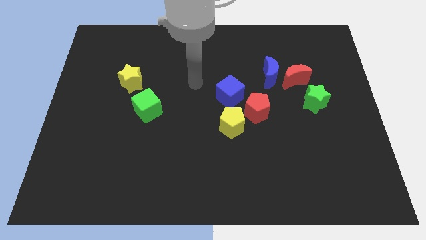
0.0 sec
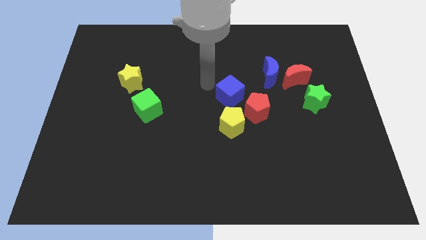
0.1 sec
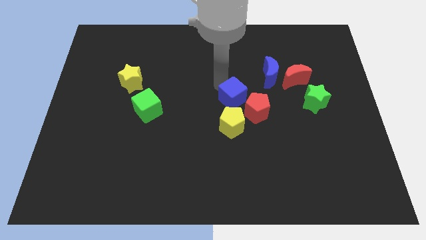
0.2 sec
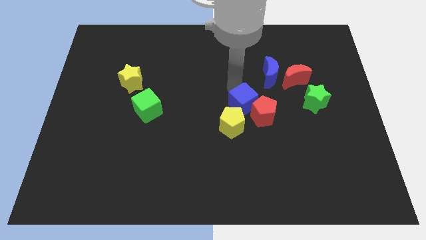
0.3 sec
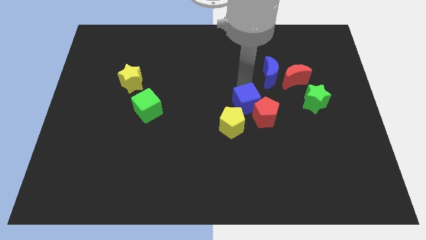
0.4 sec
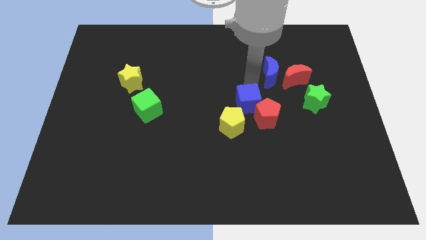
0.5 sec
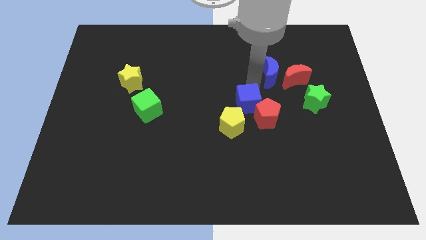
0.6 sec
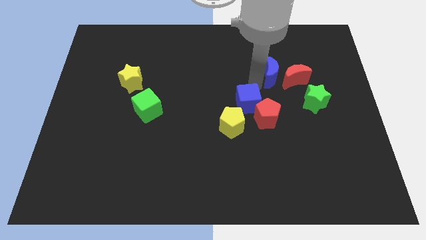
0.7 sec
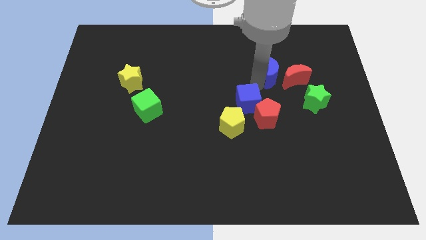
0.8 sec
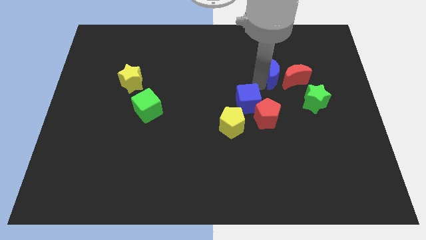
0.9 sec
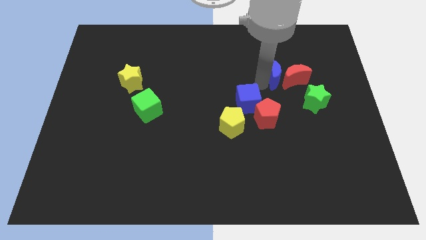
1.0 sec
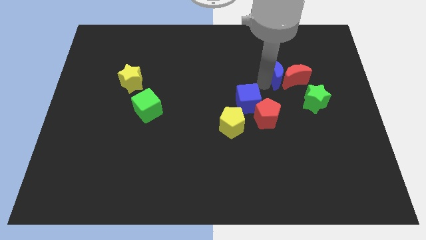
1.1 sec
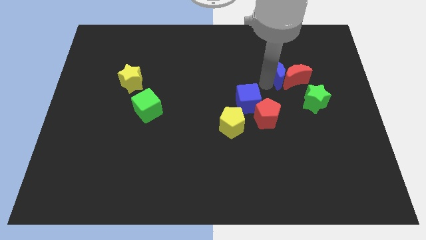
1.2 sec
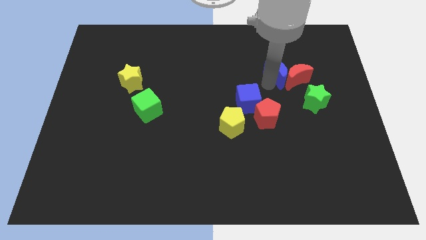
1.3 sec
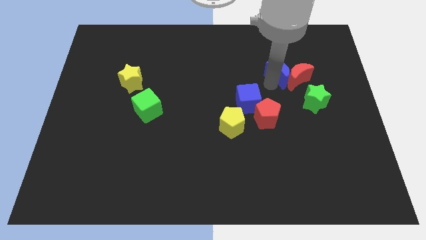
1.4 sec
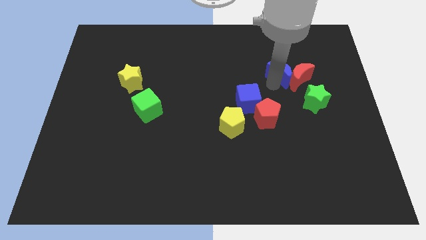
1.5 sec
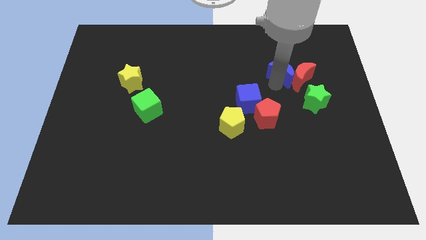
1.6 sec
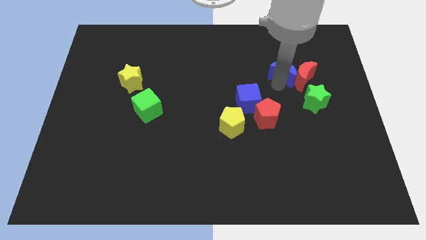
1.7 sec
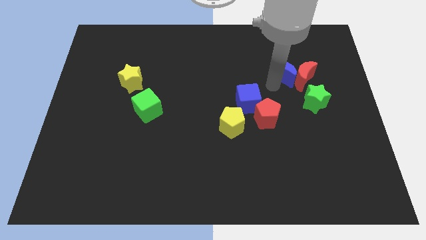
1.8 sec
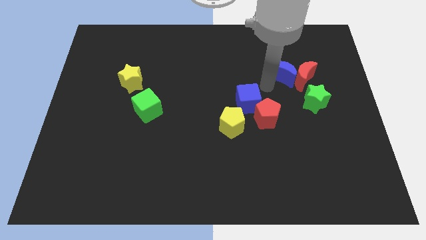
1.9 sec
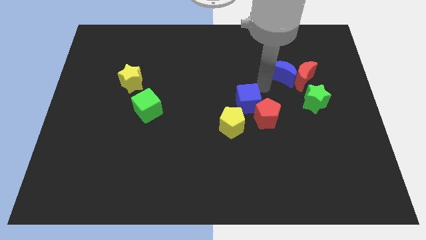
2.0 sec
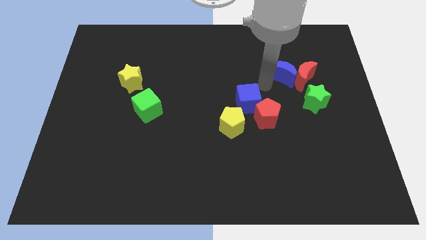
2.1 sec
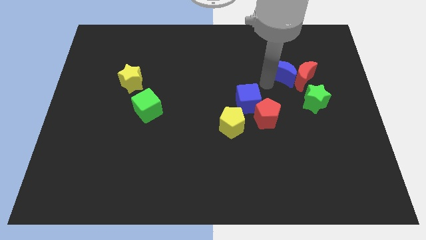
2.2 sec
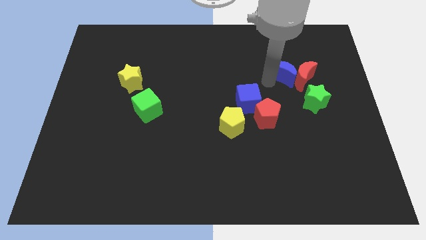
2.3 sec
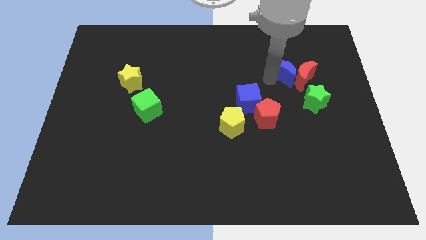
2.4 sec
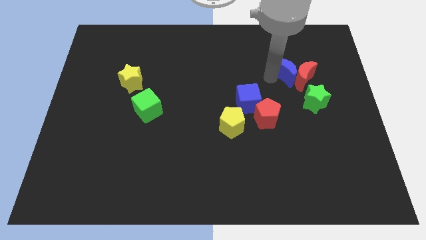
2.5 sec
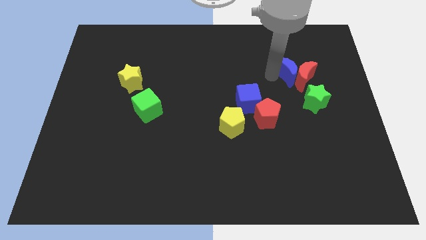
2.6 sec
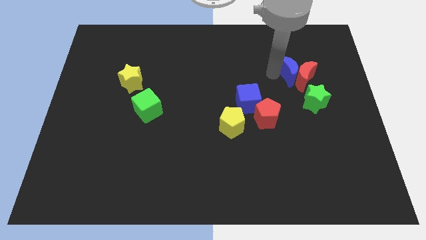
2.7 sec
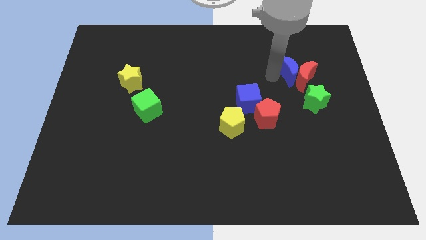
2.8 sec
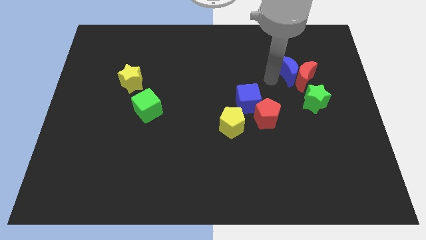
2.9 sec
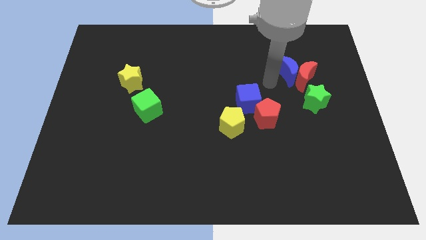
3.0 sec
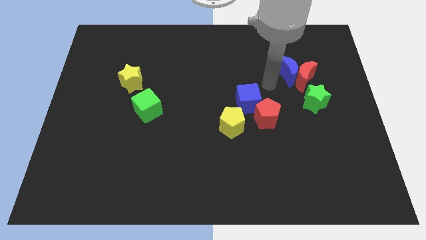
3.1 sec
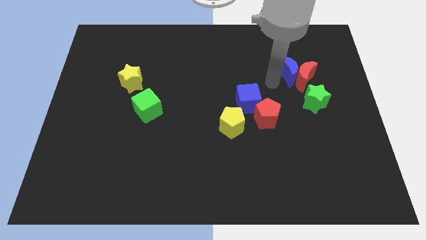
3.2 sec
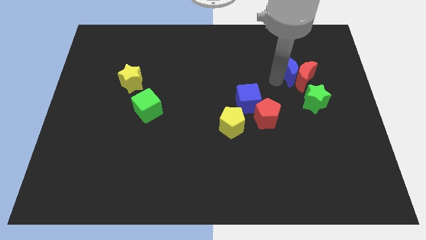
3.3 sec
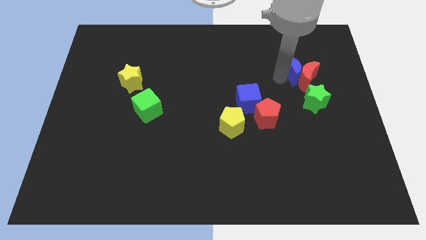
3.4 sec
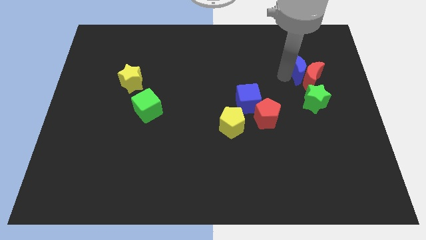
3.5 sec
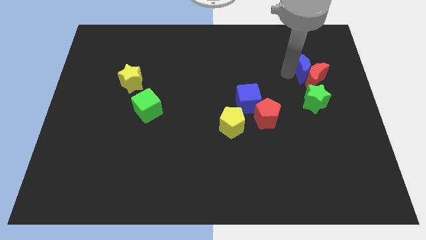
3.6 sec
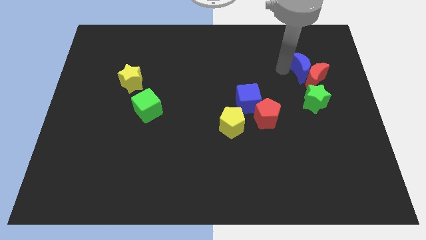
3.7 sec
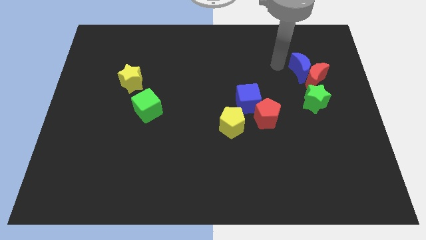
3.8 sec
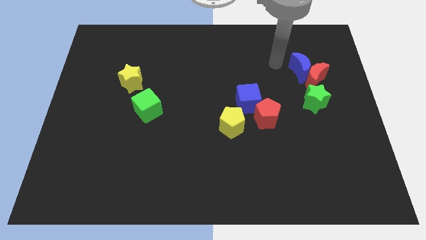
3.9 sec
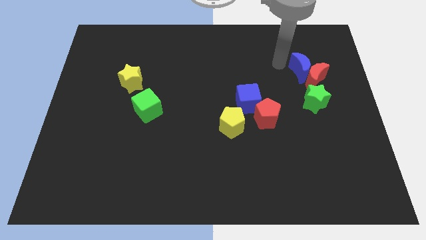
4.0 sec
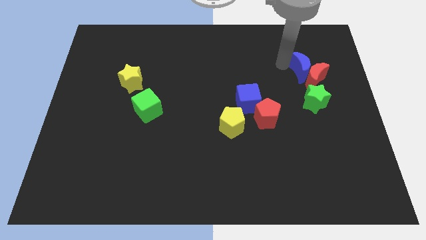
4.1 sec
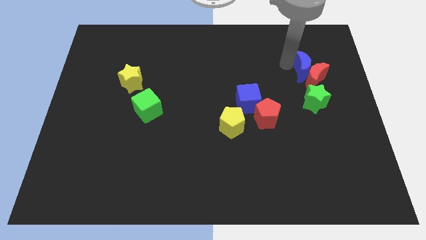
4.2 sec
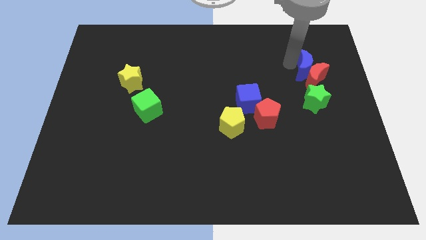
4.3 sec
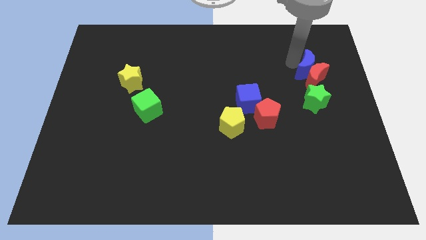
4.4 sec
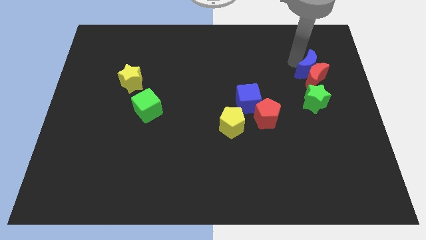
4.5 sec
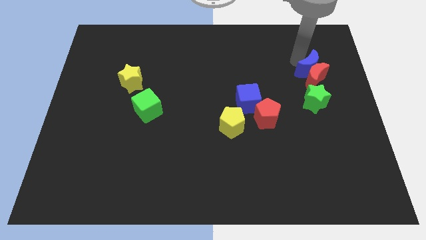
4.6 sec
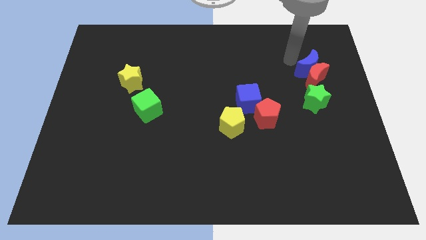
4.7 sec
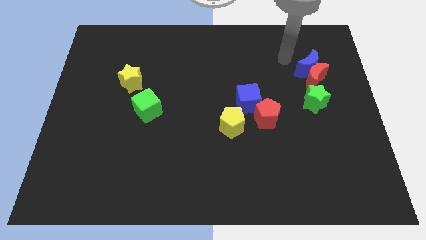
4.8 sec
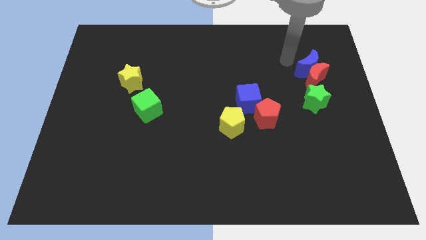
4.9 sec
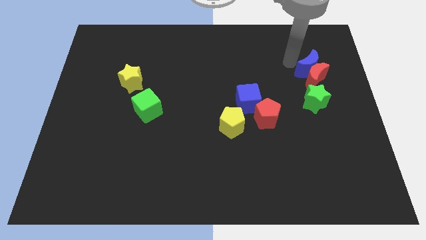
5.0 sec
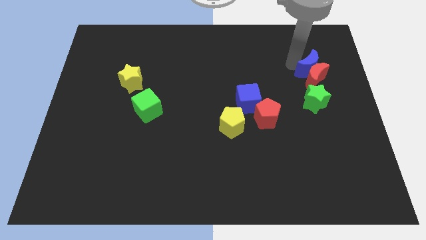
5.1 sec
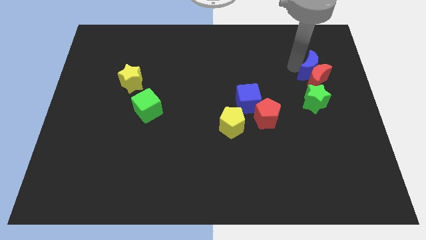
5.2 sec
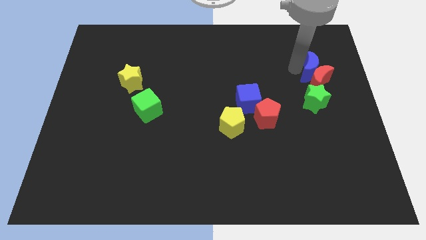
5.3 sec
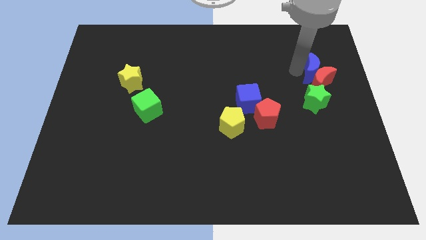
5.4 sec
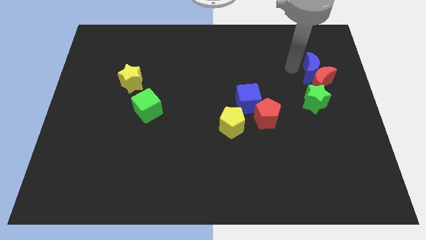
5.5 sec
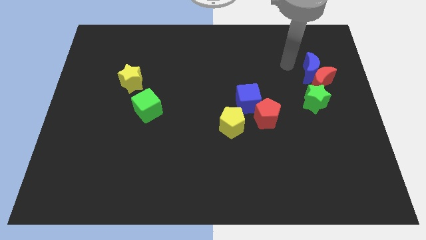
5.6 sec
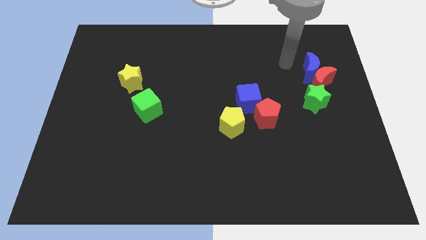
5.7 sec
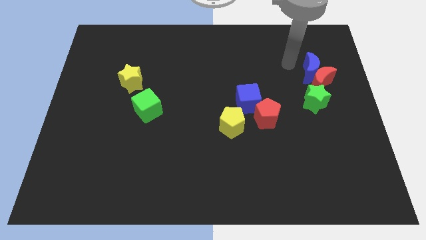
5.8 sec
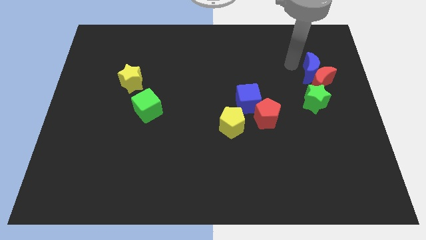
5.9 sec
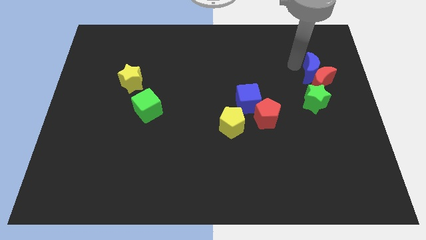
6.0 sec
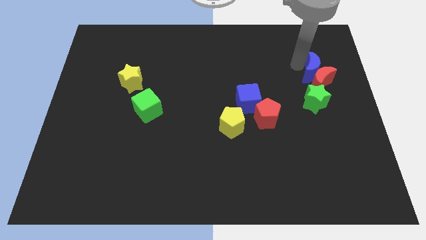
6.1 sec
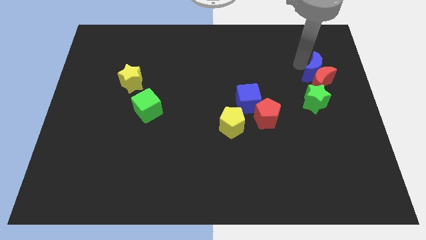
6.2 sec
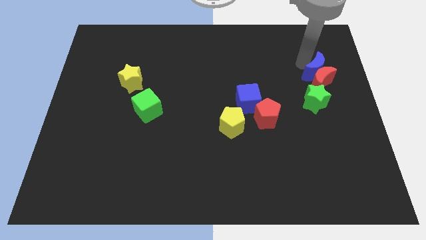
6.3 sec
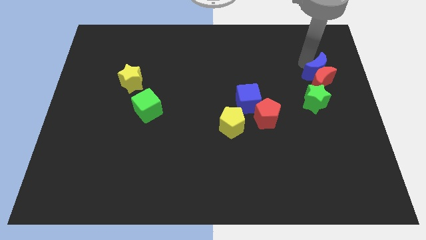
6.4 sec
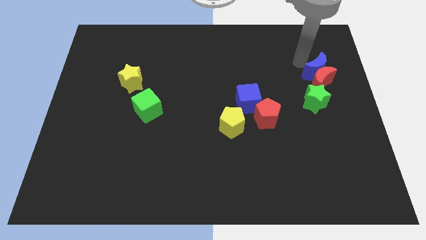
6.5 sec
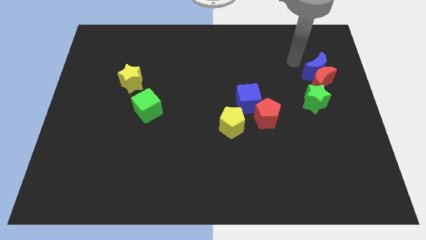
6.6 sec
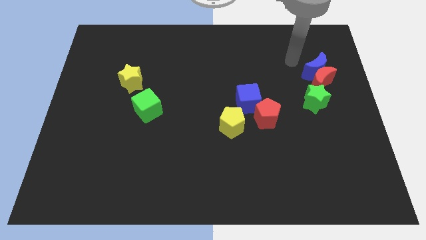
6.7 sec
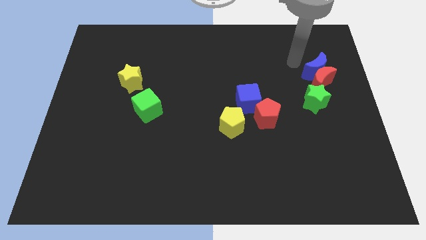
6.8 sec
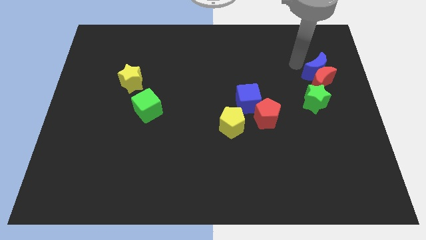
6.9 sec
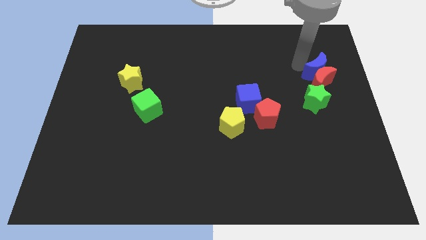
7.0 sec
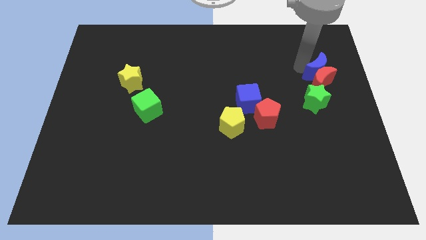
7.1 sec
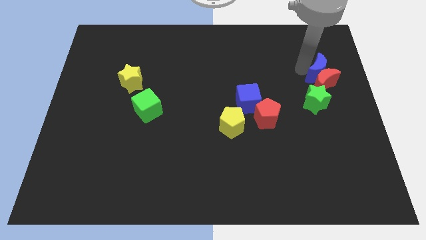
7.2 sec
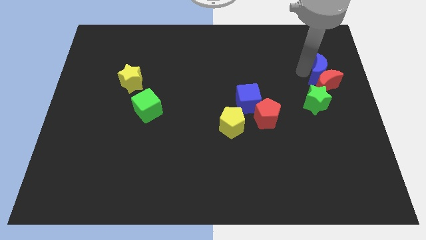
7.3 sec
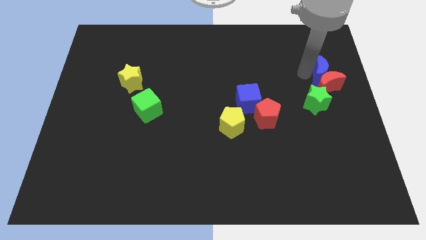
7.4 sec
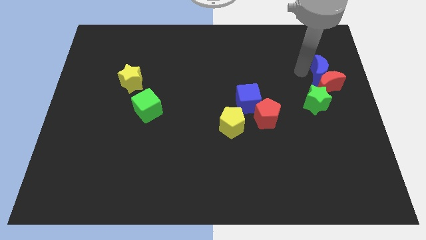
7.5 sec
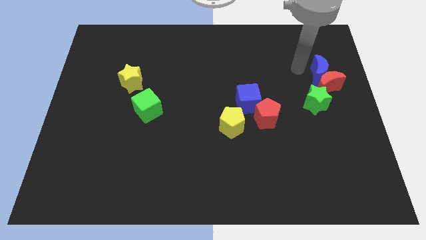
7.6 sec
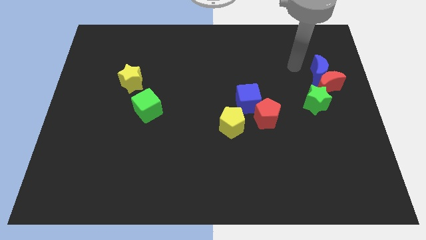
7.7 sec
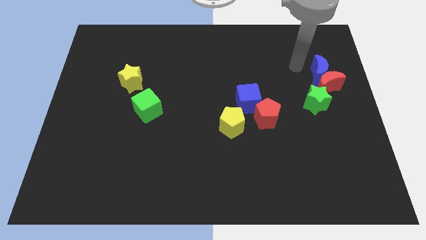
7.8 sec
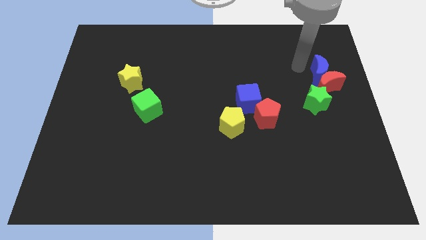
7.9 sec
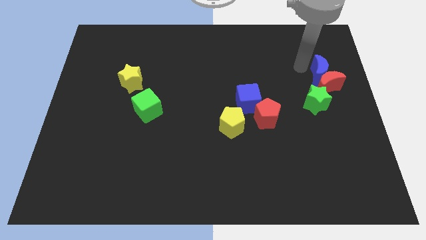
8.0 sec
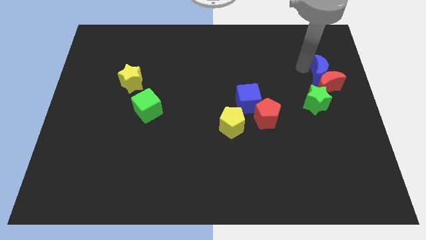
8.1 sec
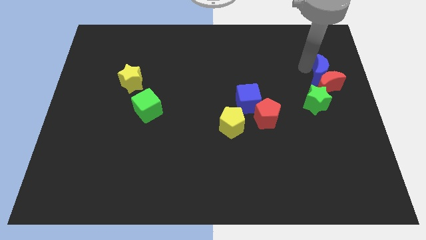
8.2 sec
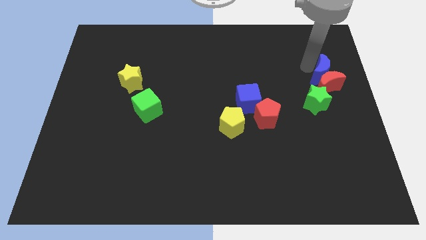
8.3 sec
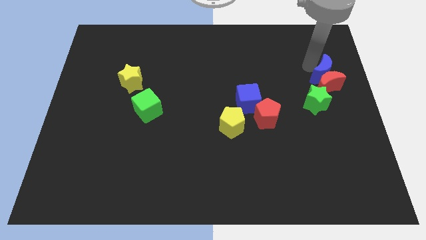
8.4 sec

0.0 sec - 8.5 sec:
put the blue moon to the right side
